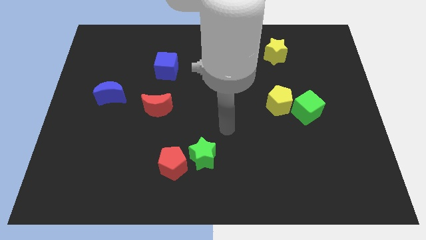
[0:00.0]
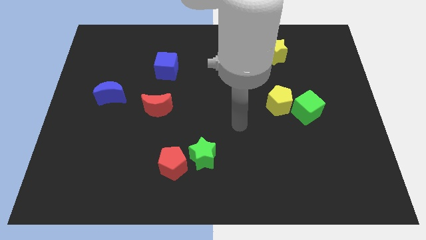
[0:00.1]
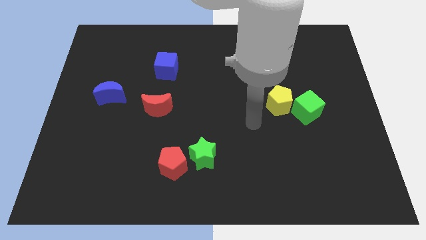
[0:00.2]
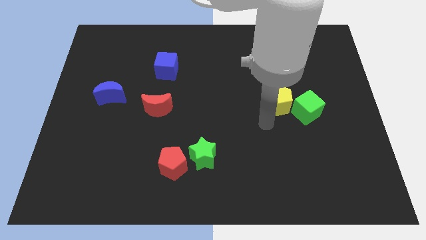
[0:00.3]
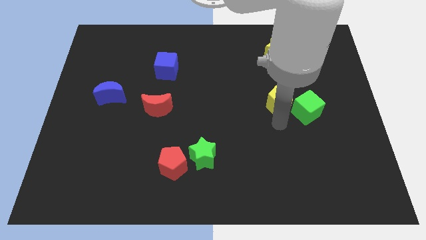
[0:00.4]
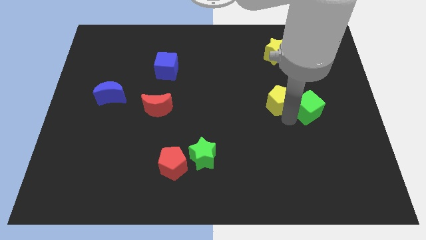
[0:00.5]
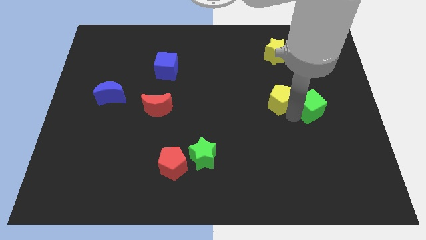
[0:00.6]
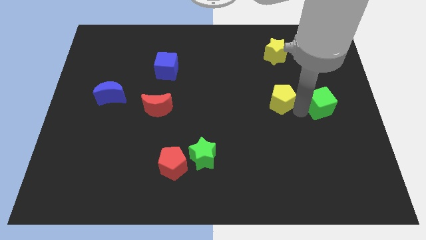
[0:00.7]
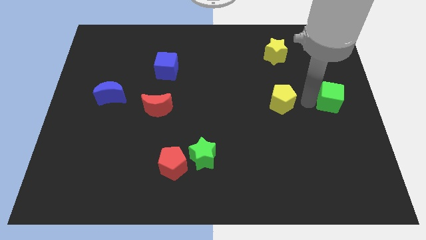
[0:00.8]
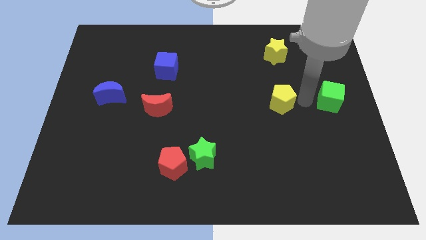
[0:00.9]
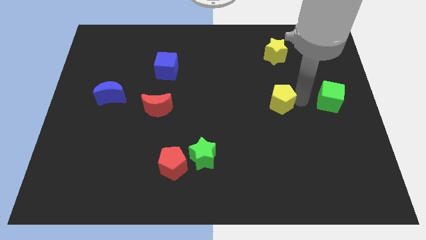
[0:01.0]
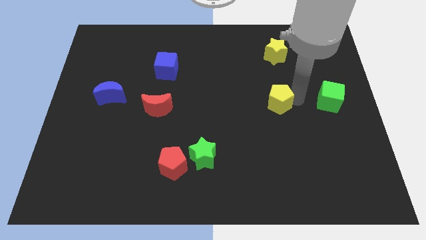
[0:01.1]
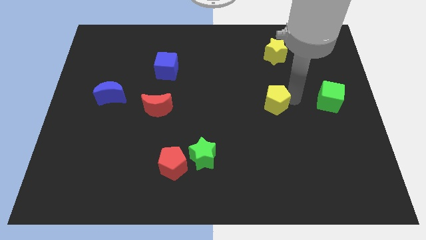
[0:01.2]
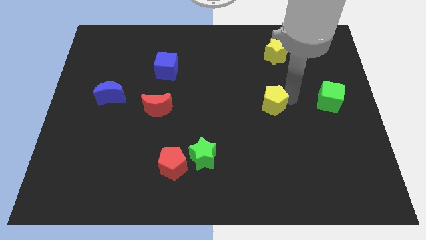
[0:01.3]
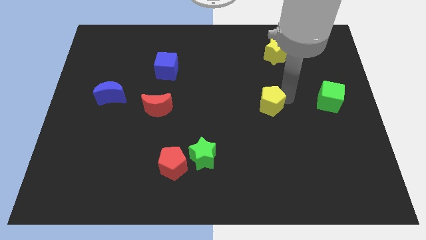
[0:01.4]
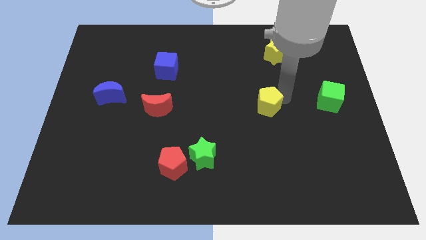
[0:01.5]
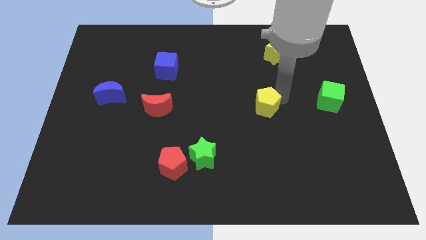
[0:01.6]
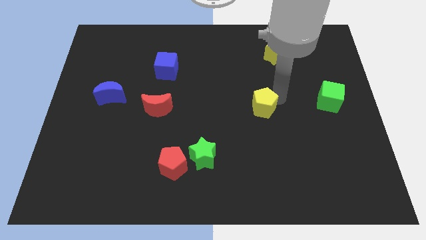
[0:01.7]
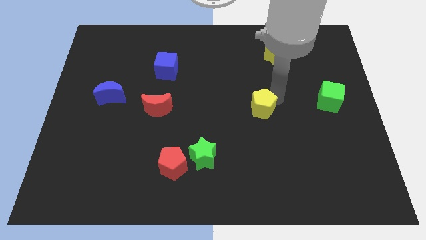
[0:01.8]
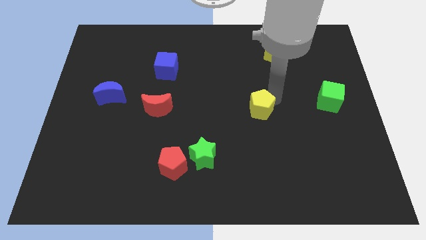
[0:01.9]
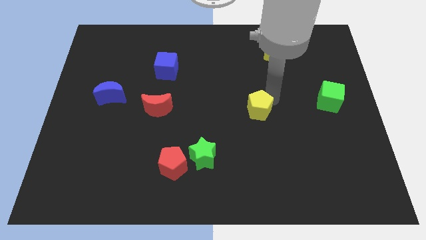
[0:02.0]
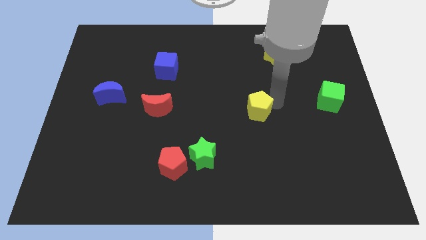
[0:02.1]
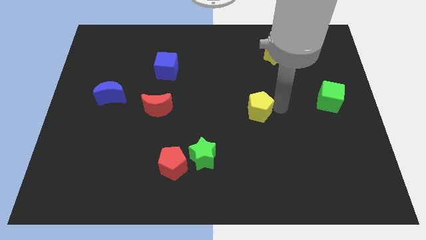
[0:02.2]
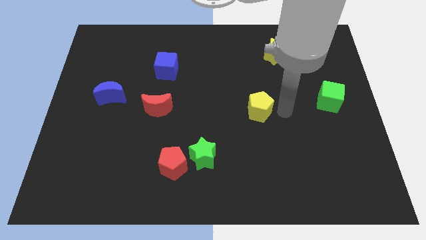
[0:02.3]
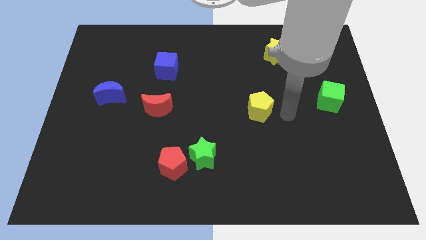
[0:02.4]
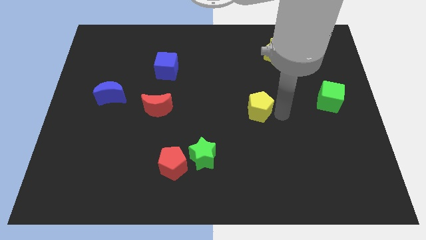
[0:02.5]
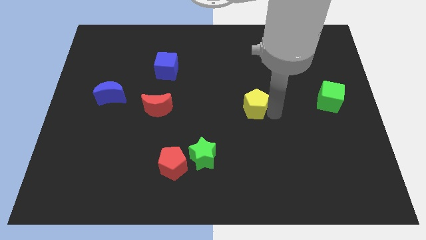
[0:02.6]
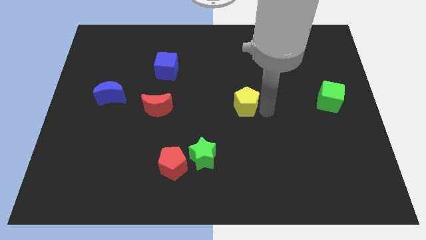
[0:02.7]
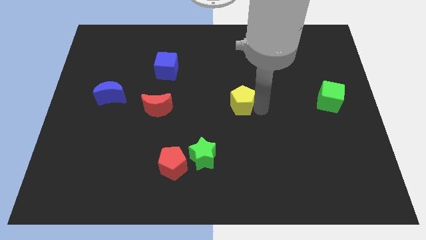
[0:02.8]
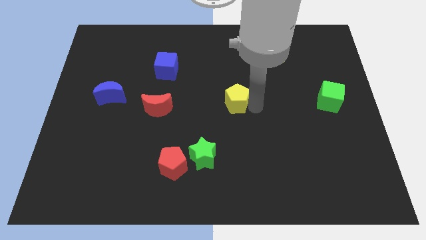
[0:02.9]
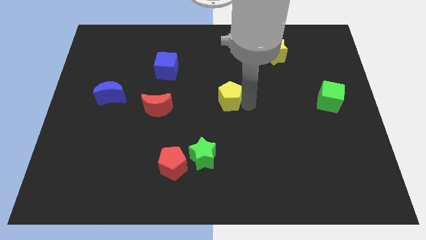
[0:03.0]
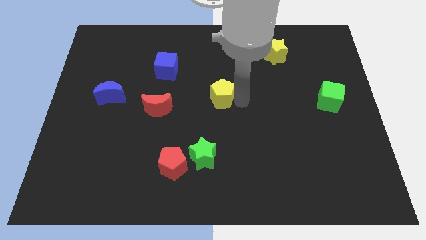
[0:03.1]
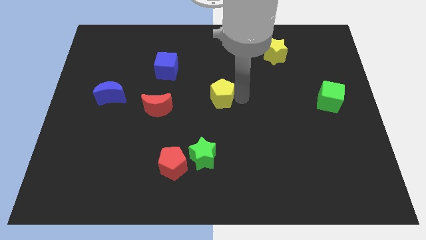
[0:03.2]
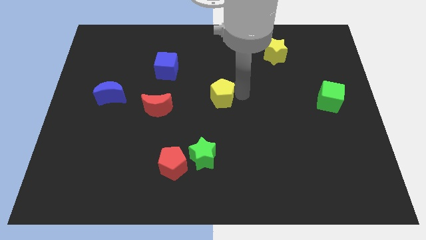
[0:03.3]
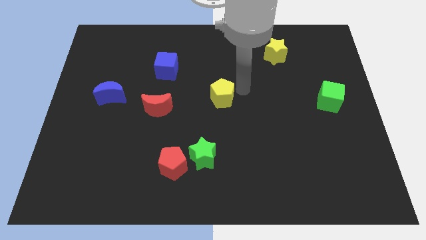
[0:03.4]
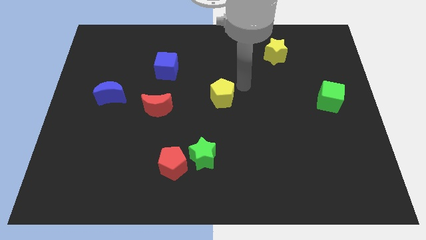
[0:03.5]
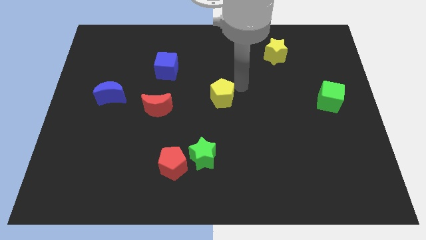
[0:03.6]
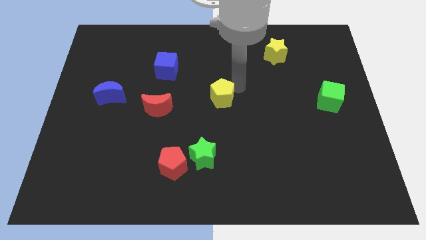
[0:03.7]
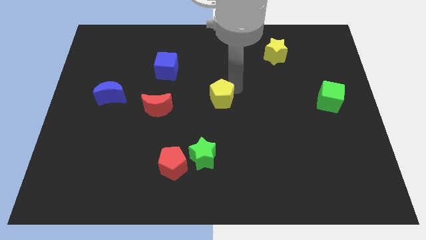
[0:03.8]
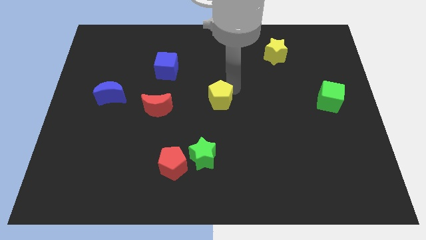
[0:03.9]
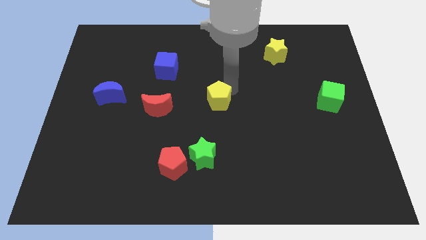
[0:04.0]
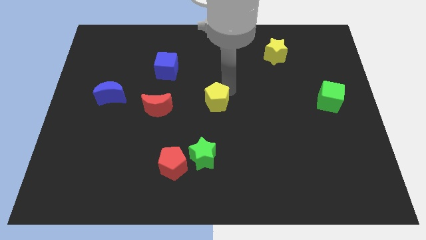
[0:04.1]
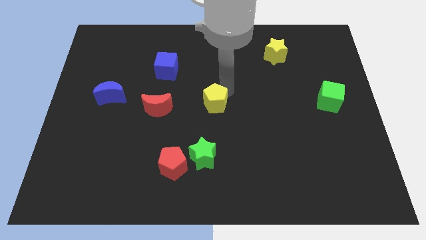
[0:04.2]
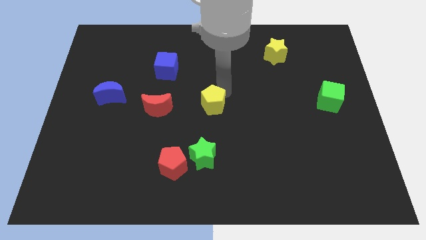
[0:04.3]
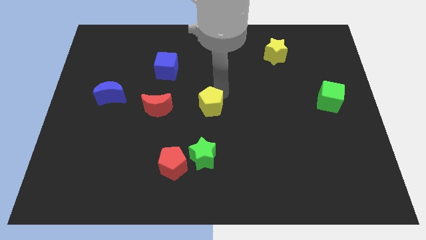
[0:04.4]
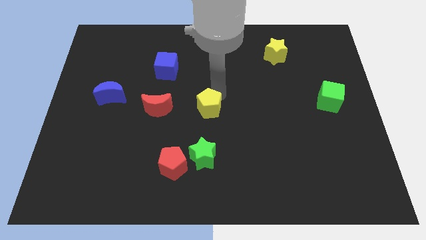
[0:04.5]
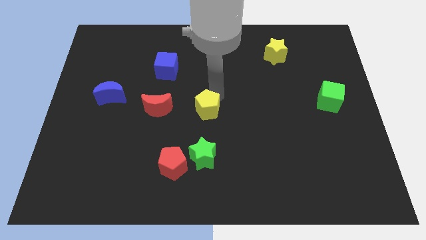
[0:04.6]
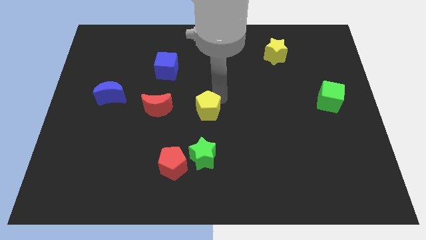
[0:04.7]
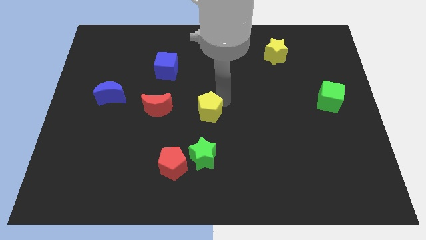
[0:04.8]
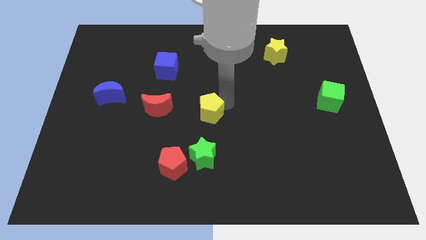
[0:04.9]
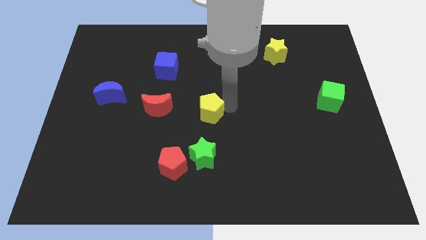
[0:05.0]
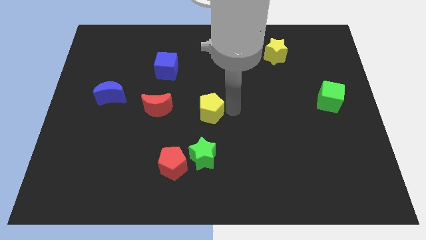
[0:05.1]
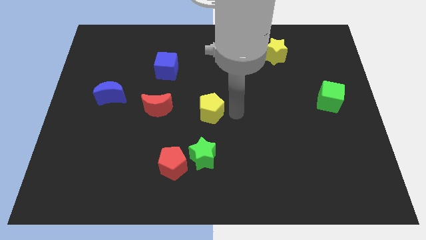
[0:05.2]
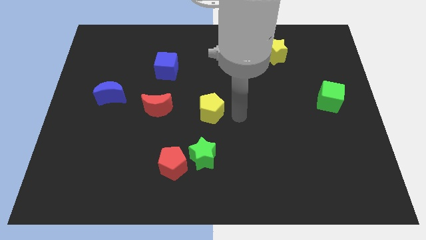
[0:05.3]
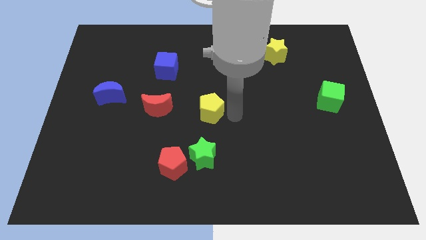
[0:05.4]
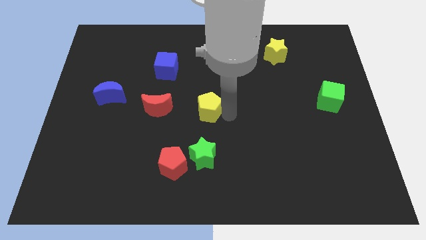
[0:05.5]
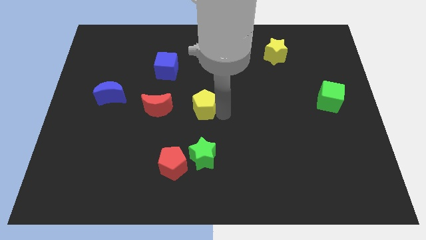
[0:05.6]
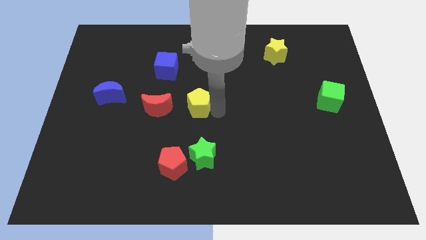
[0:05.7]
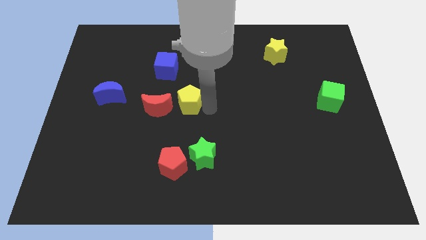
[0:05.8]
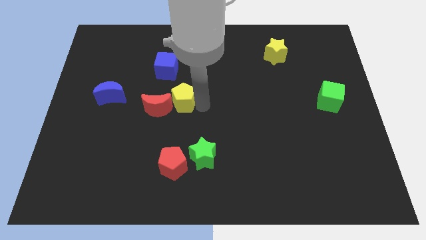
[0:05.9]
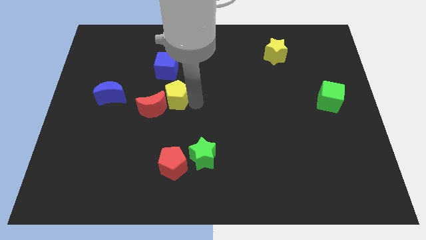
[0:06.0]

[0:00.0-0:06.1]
move the yellow pentagon towards the red moon

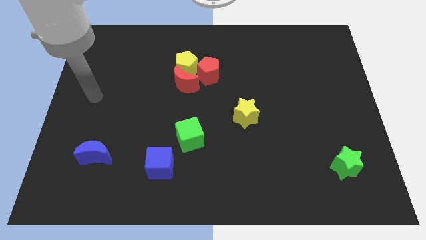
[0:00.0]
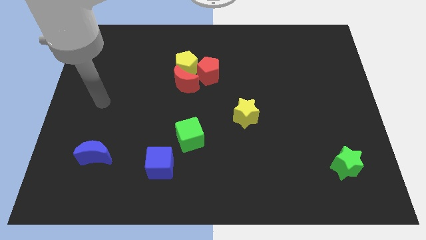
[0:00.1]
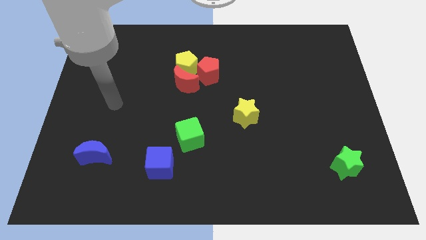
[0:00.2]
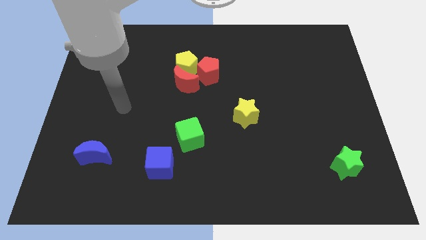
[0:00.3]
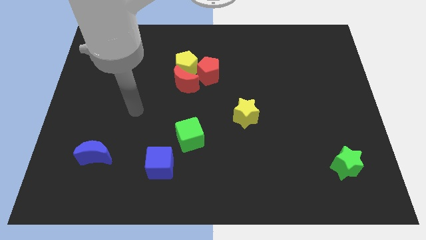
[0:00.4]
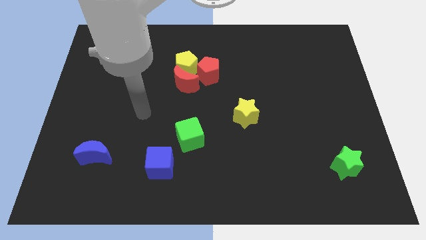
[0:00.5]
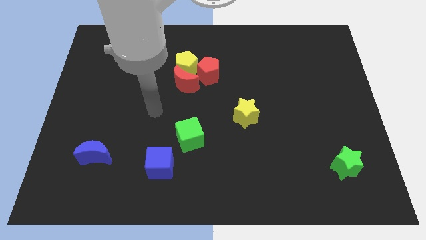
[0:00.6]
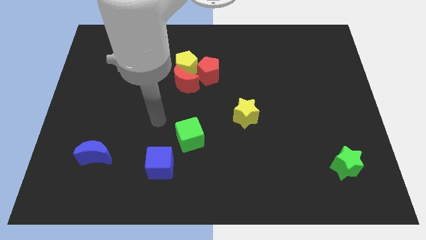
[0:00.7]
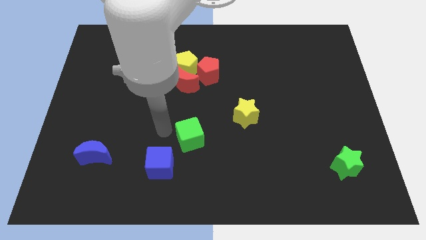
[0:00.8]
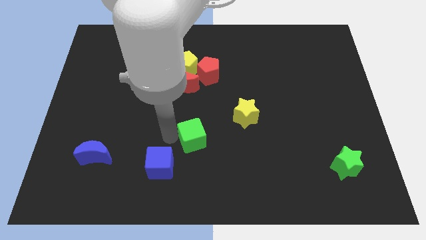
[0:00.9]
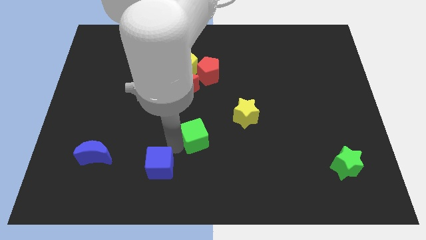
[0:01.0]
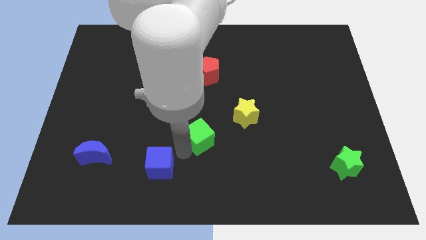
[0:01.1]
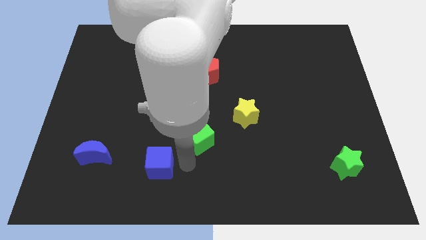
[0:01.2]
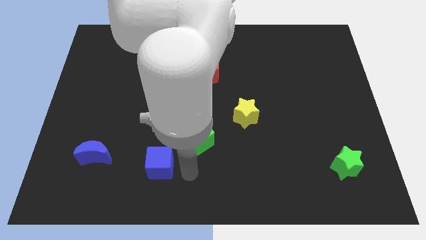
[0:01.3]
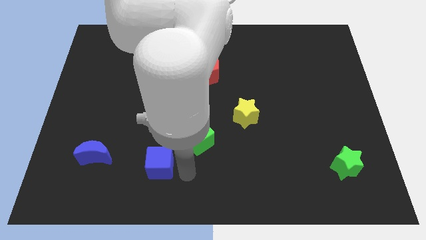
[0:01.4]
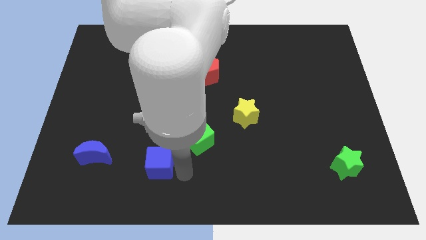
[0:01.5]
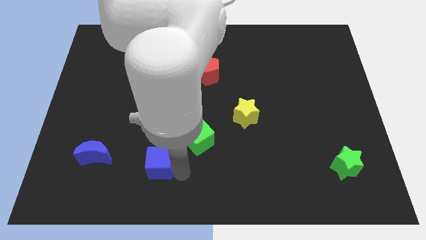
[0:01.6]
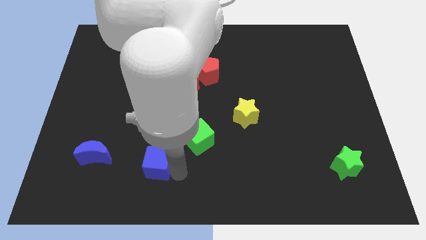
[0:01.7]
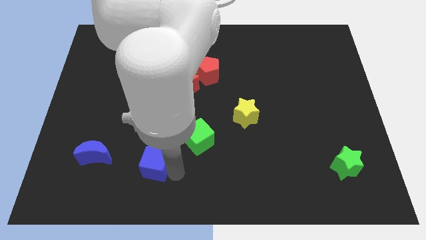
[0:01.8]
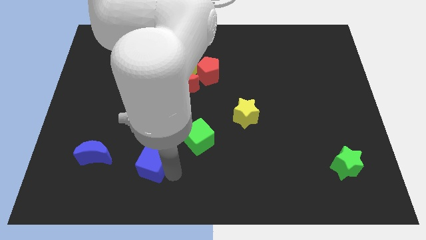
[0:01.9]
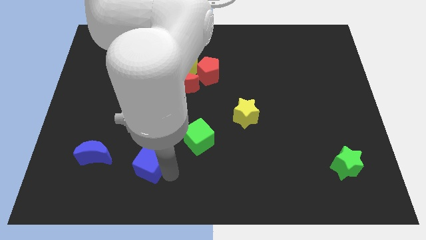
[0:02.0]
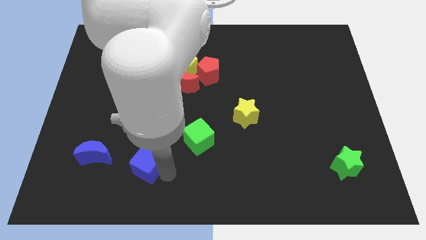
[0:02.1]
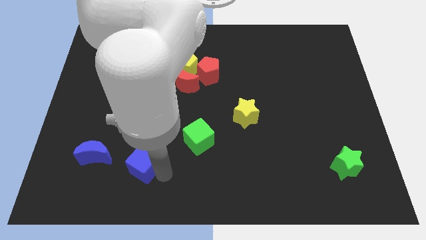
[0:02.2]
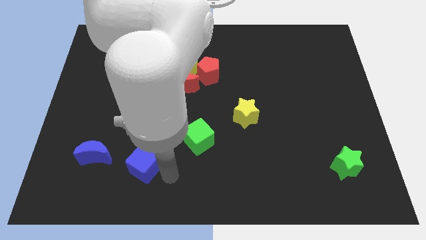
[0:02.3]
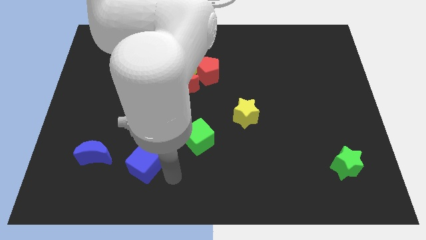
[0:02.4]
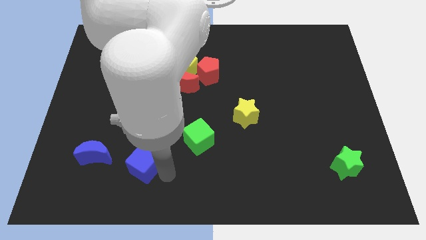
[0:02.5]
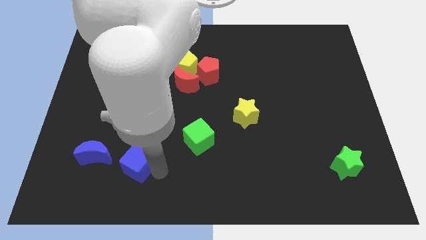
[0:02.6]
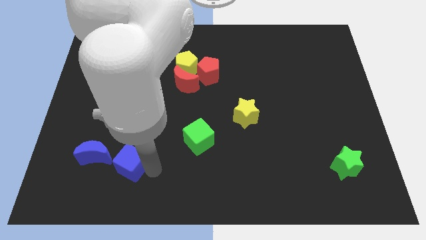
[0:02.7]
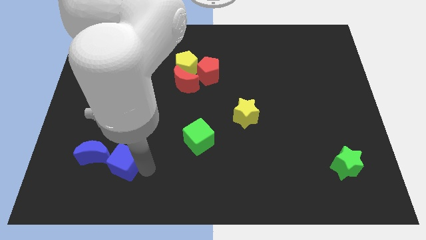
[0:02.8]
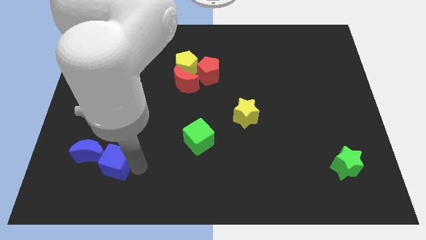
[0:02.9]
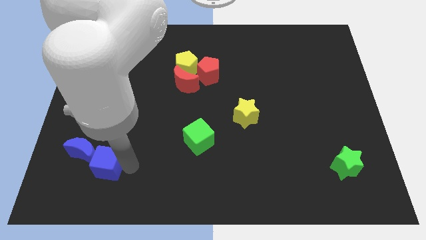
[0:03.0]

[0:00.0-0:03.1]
slide the blue cube next to the blue moon
